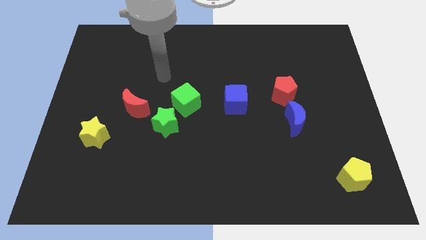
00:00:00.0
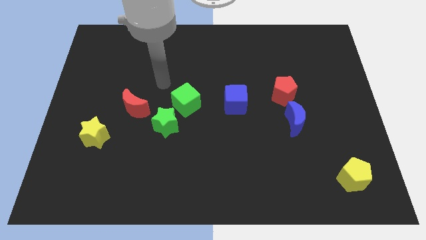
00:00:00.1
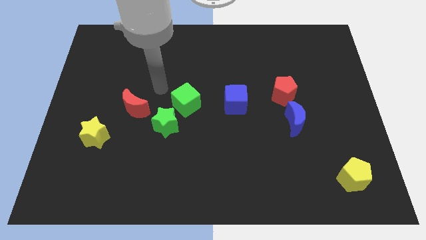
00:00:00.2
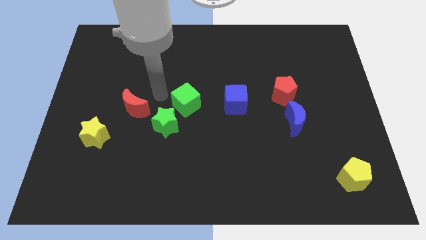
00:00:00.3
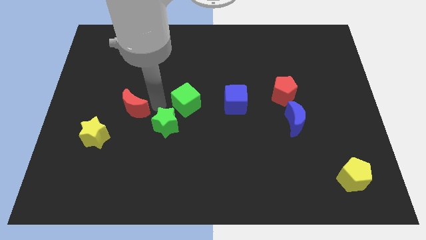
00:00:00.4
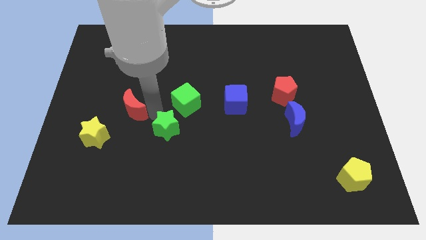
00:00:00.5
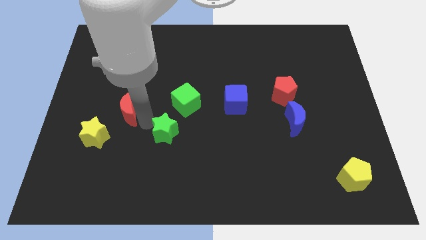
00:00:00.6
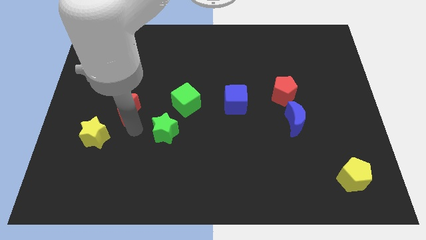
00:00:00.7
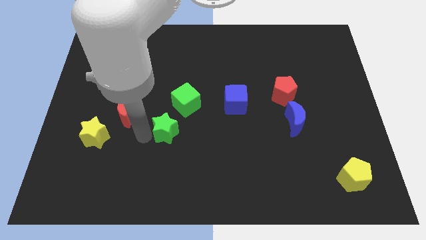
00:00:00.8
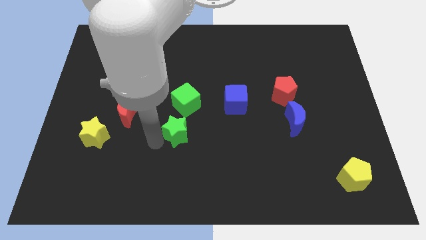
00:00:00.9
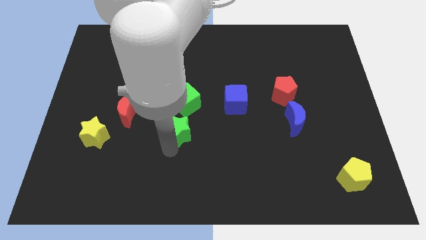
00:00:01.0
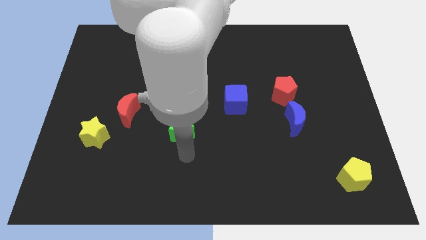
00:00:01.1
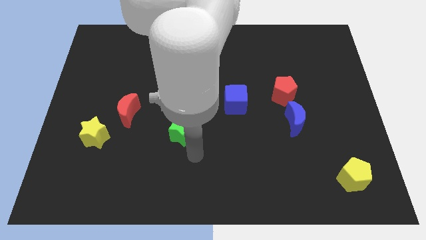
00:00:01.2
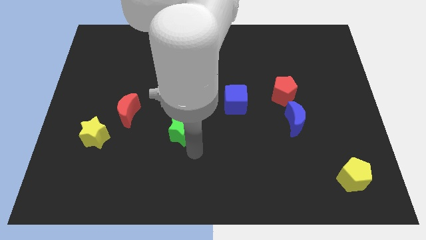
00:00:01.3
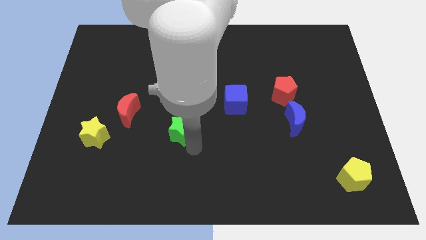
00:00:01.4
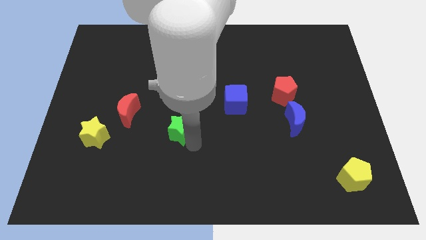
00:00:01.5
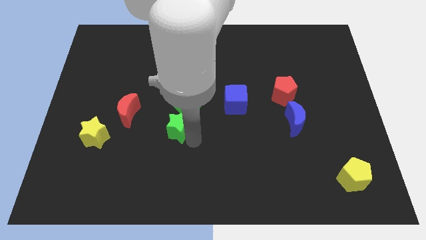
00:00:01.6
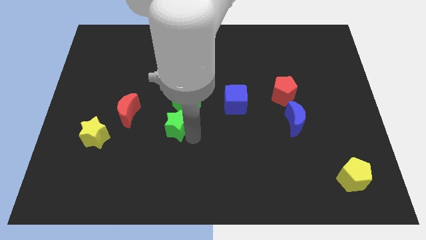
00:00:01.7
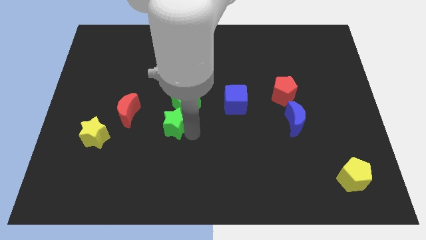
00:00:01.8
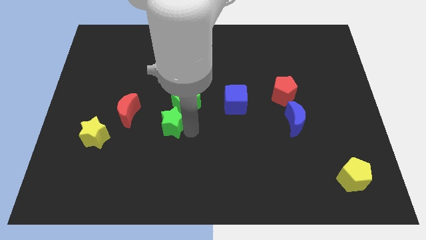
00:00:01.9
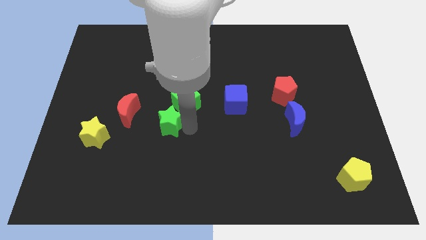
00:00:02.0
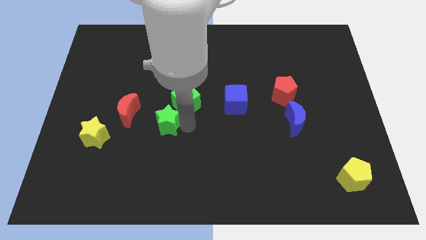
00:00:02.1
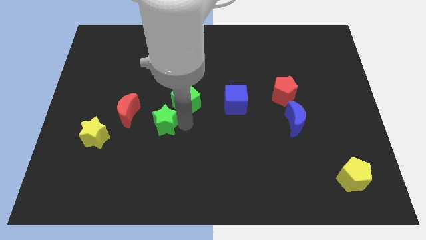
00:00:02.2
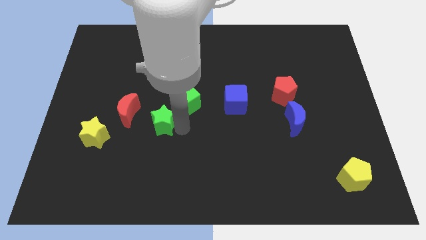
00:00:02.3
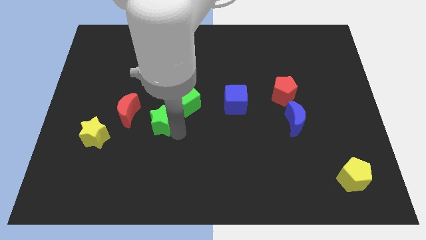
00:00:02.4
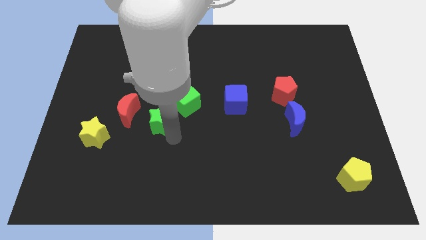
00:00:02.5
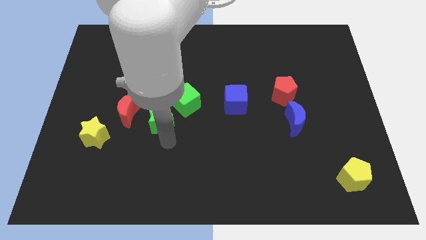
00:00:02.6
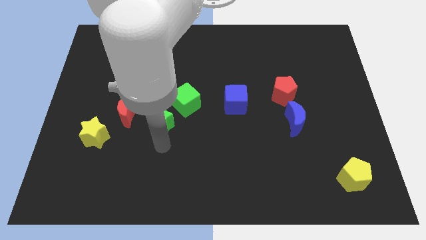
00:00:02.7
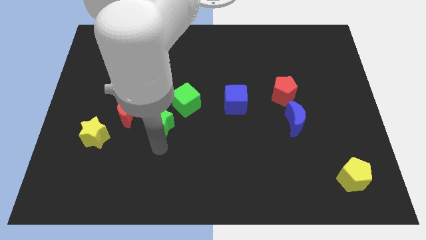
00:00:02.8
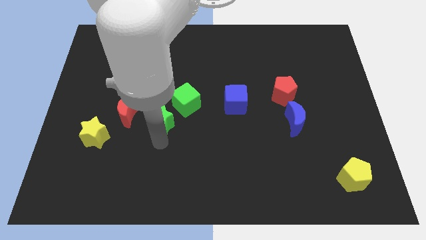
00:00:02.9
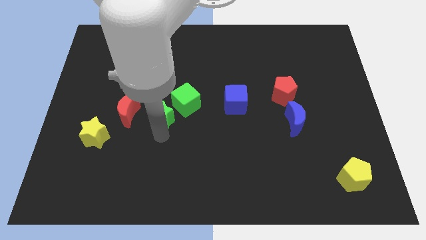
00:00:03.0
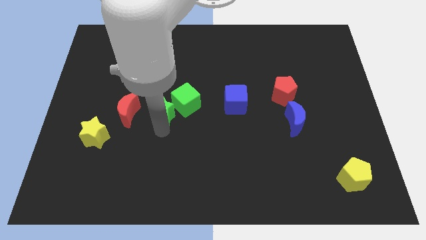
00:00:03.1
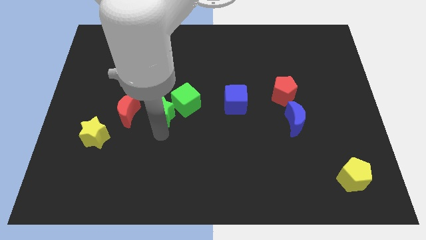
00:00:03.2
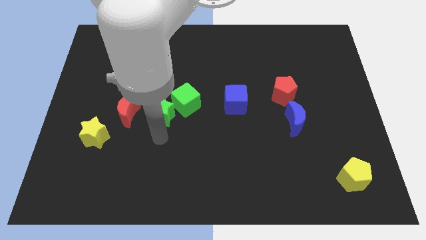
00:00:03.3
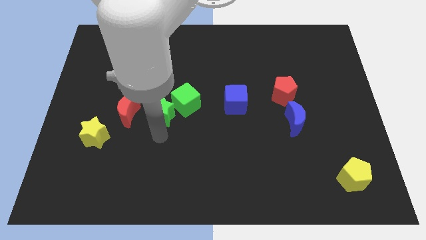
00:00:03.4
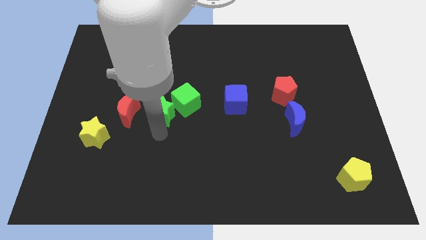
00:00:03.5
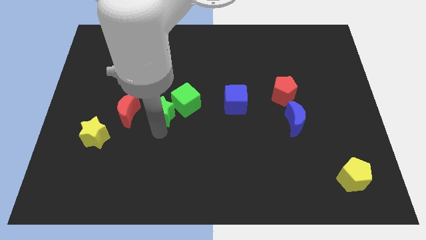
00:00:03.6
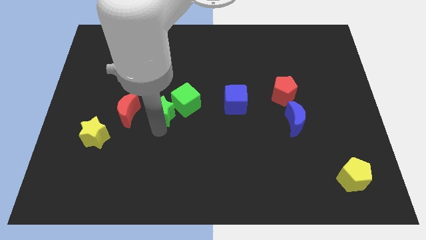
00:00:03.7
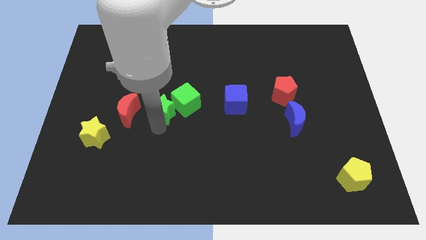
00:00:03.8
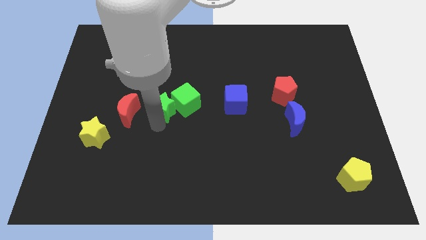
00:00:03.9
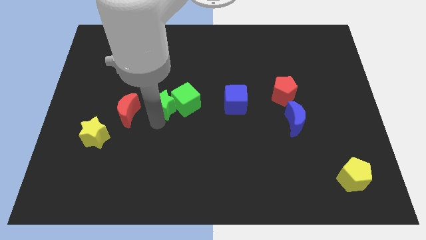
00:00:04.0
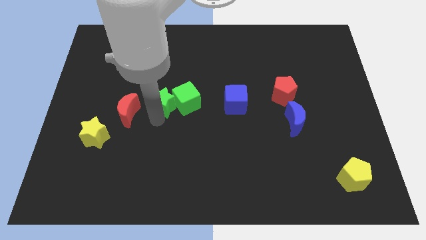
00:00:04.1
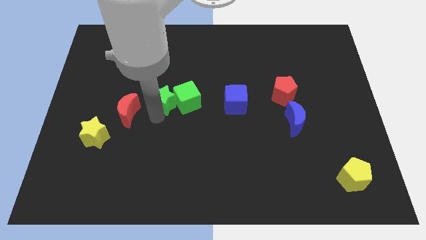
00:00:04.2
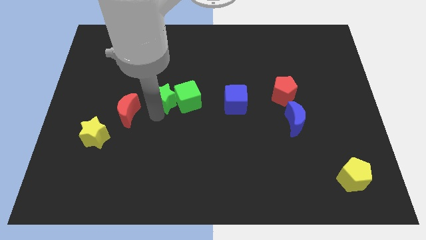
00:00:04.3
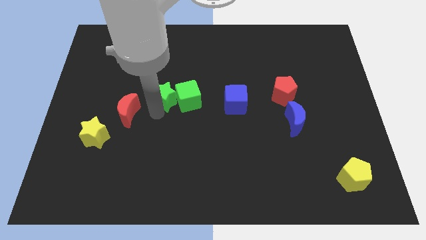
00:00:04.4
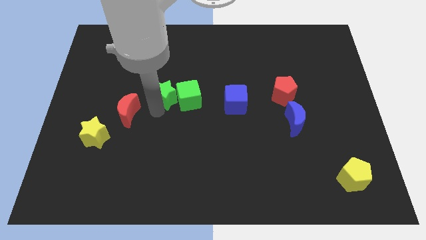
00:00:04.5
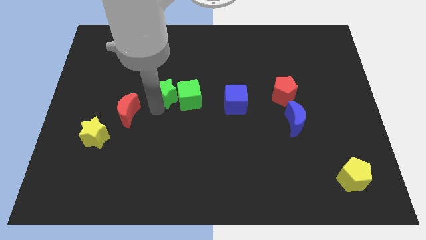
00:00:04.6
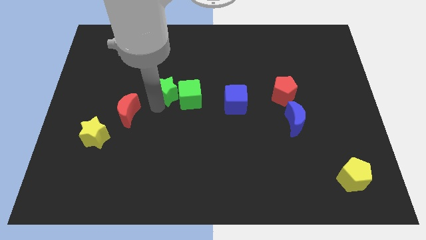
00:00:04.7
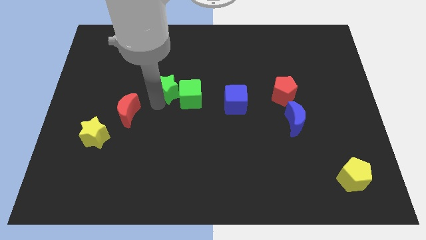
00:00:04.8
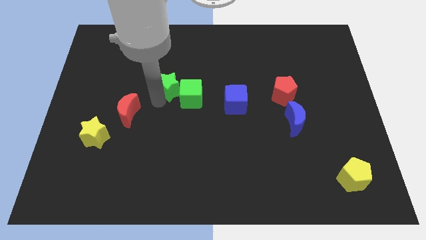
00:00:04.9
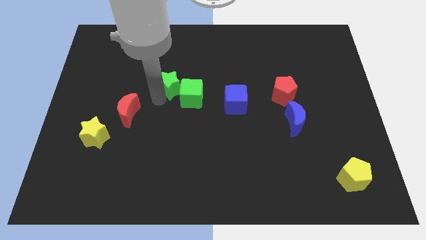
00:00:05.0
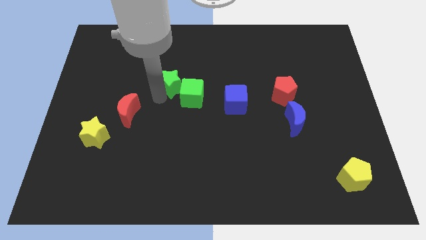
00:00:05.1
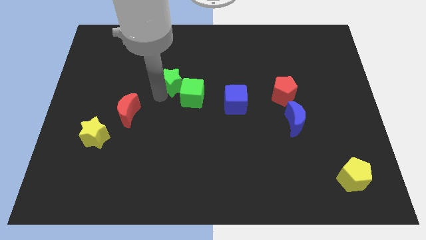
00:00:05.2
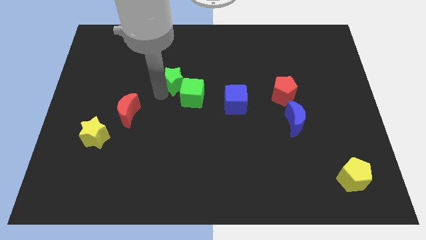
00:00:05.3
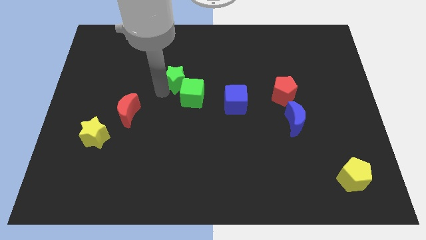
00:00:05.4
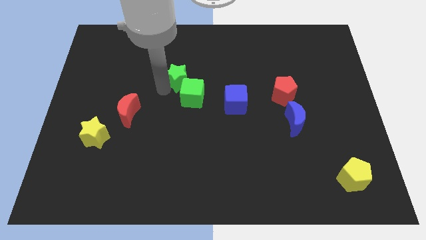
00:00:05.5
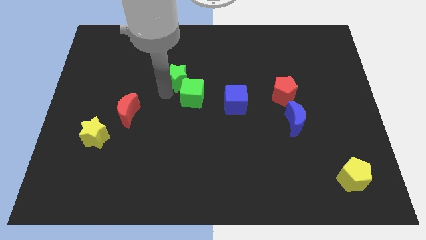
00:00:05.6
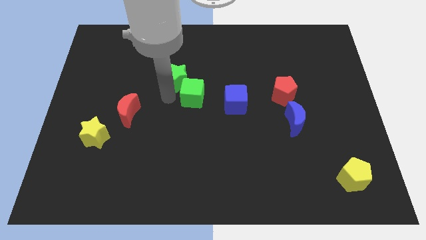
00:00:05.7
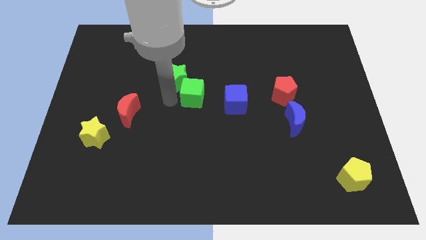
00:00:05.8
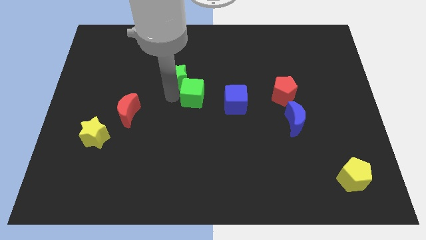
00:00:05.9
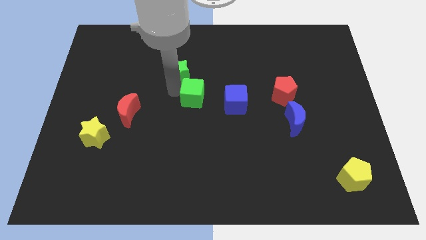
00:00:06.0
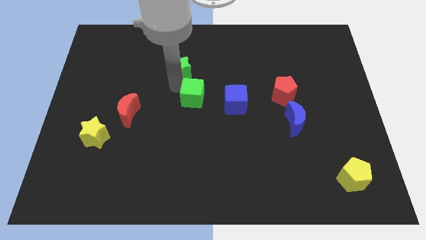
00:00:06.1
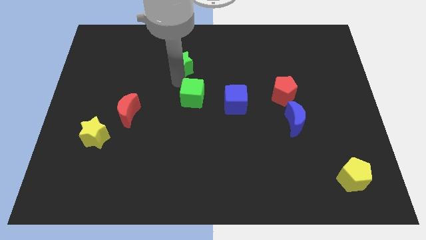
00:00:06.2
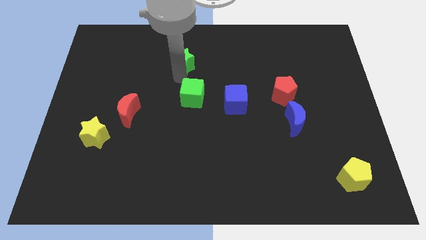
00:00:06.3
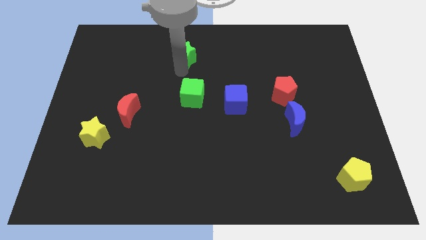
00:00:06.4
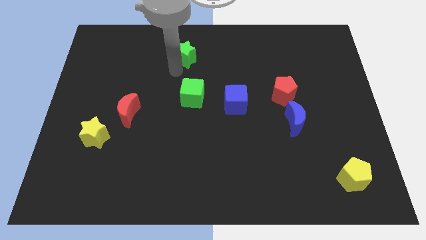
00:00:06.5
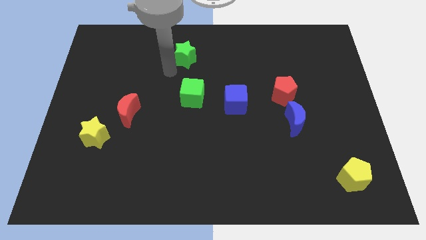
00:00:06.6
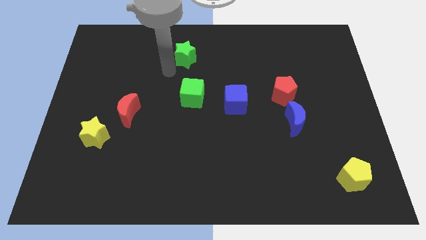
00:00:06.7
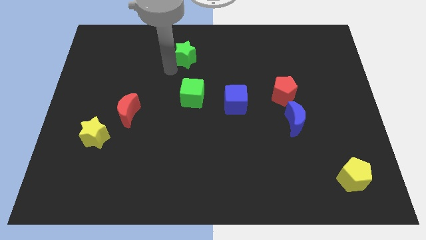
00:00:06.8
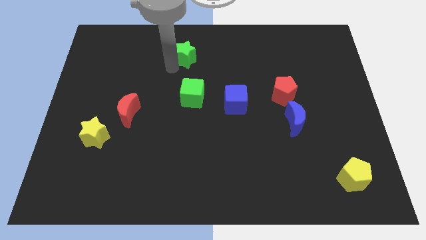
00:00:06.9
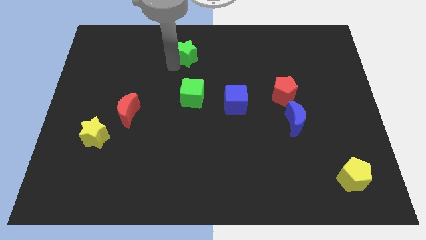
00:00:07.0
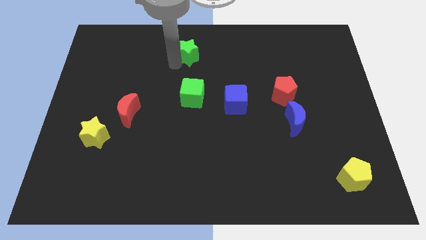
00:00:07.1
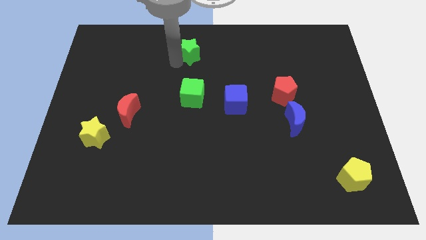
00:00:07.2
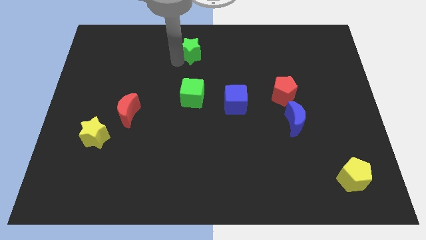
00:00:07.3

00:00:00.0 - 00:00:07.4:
move the green star to the top
